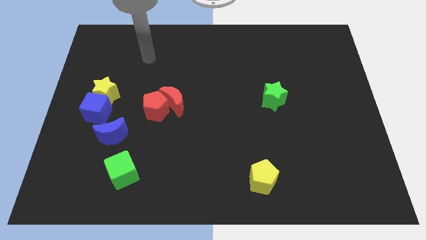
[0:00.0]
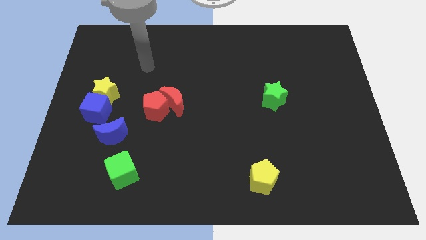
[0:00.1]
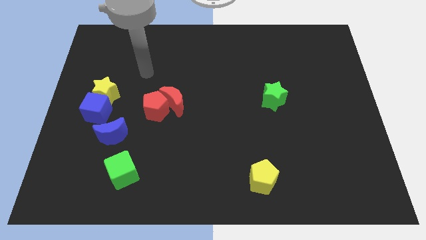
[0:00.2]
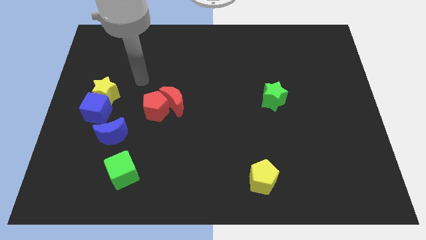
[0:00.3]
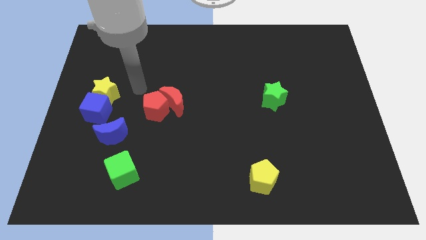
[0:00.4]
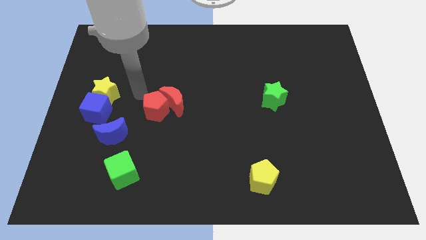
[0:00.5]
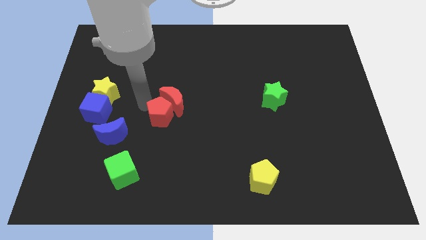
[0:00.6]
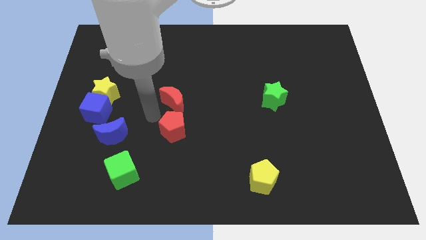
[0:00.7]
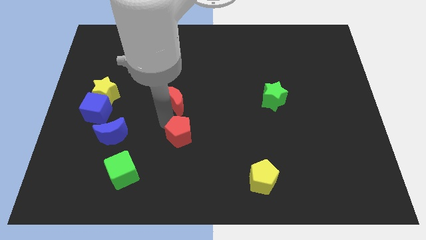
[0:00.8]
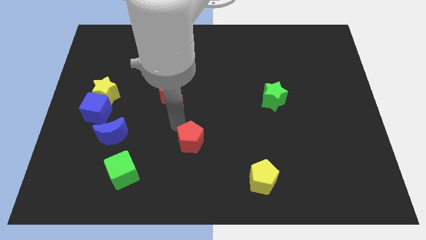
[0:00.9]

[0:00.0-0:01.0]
pull the red moon apart from the red pentagon

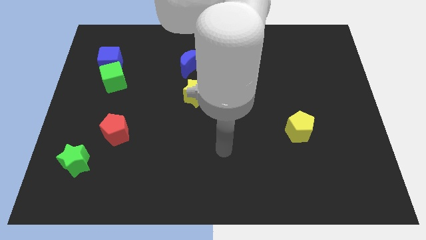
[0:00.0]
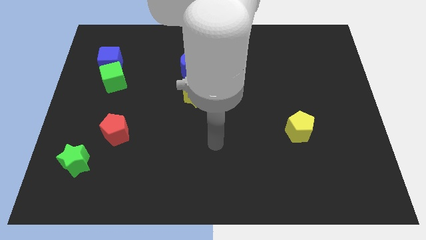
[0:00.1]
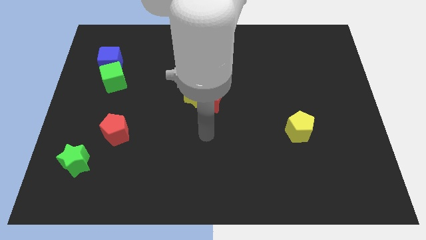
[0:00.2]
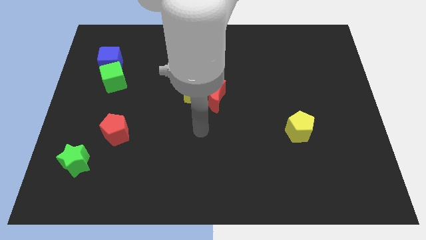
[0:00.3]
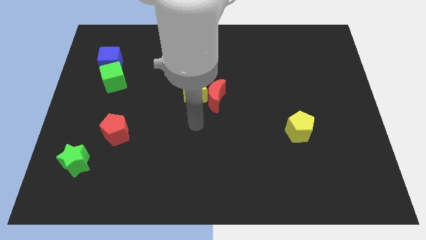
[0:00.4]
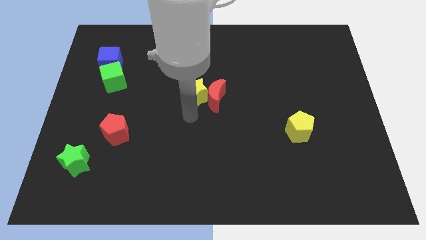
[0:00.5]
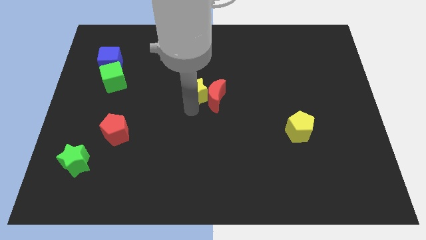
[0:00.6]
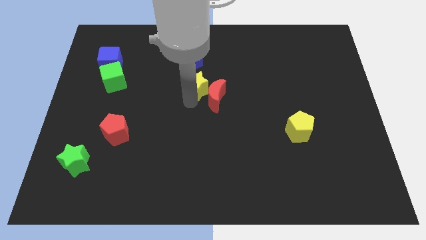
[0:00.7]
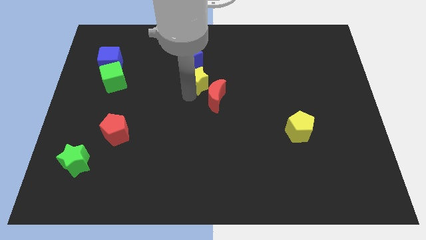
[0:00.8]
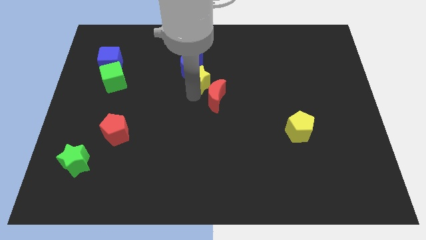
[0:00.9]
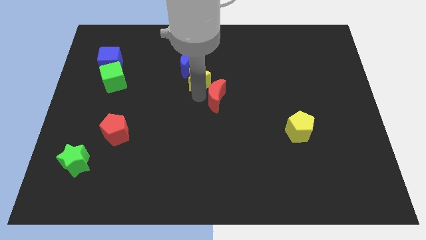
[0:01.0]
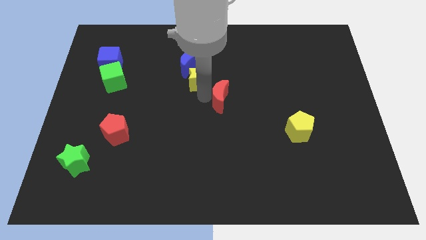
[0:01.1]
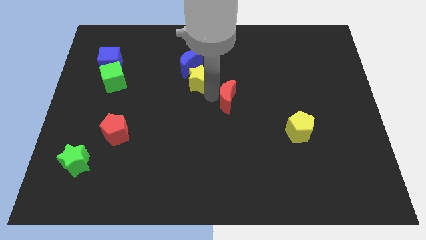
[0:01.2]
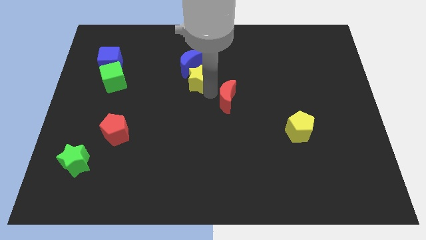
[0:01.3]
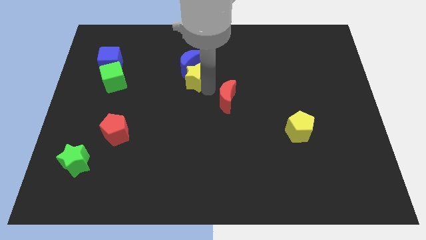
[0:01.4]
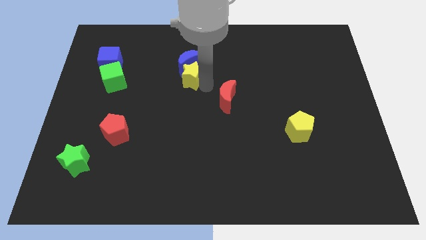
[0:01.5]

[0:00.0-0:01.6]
move the red moon away from the yellow star

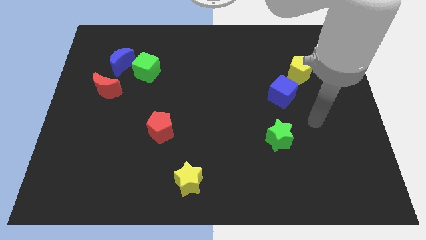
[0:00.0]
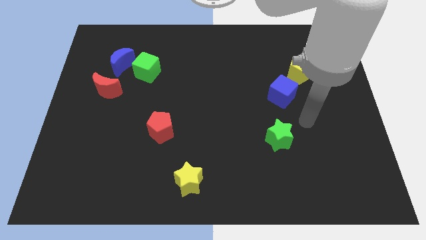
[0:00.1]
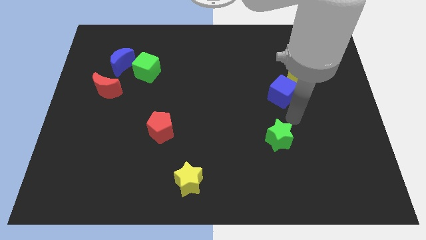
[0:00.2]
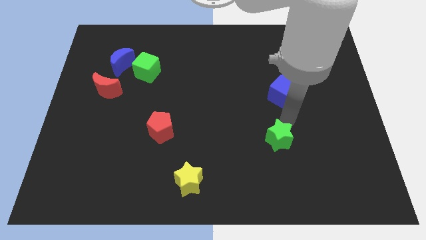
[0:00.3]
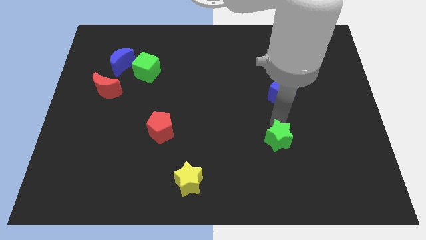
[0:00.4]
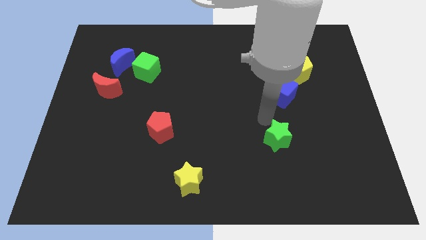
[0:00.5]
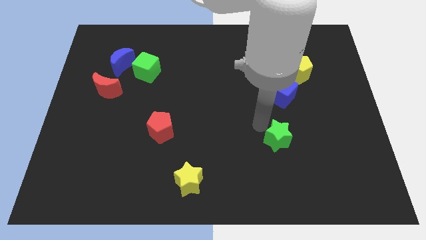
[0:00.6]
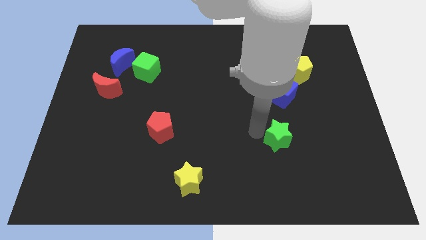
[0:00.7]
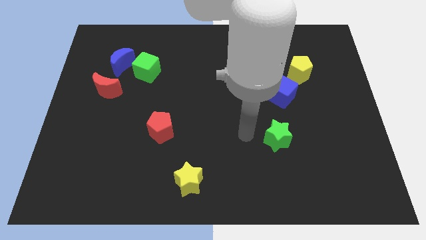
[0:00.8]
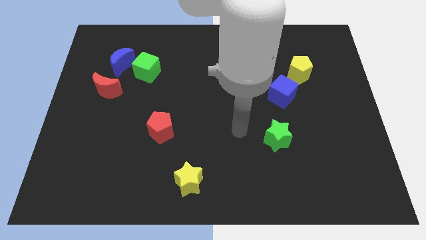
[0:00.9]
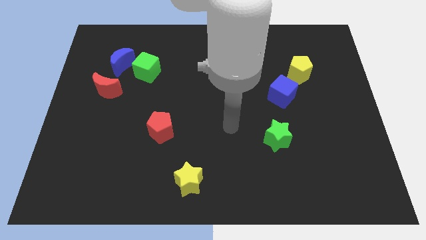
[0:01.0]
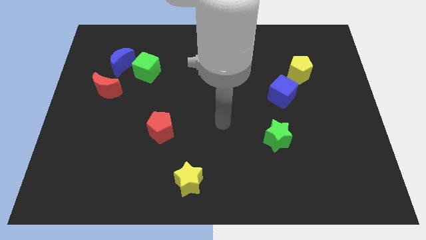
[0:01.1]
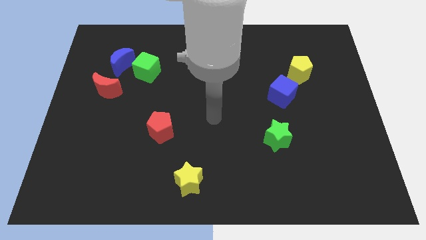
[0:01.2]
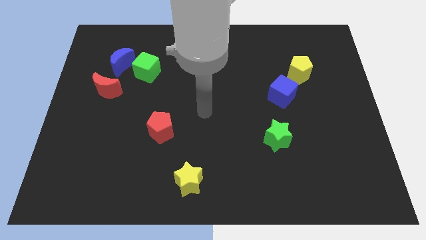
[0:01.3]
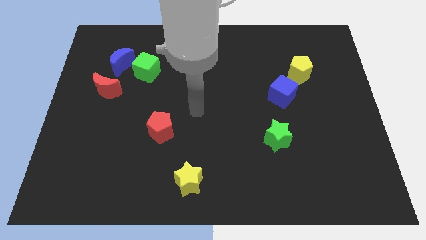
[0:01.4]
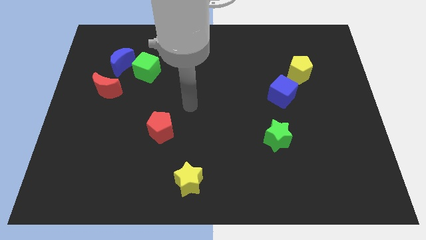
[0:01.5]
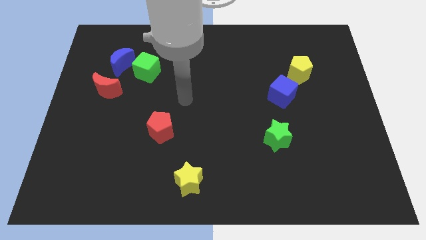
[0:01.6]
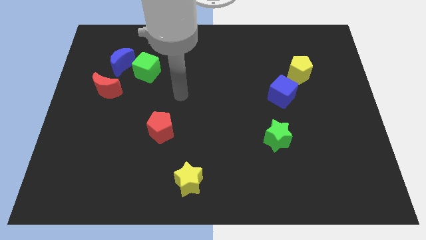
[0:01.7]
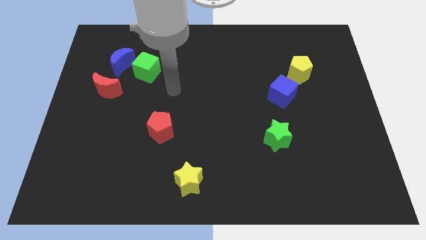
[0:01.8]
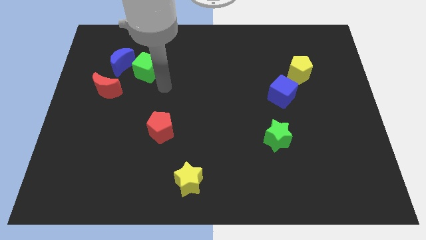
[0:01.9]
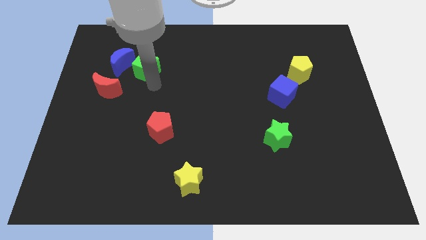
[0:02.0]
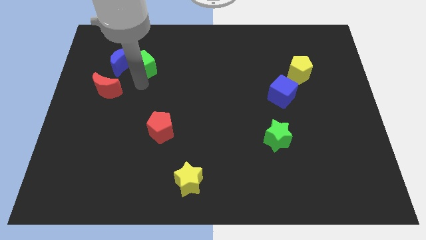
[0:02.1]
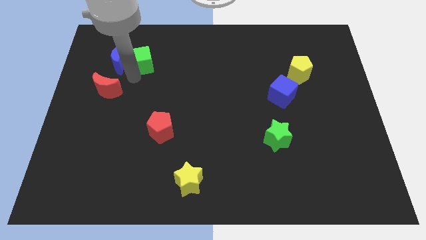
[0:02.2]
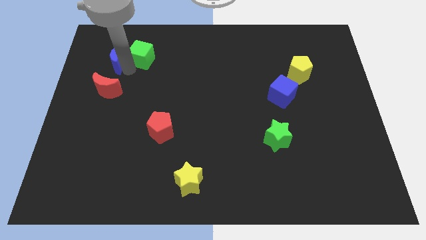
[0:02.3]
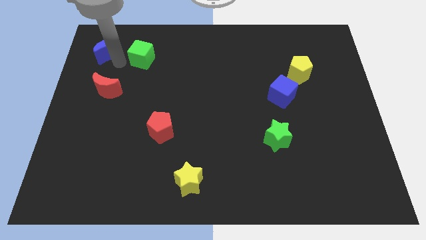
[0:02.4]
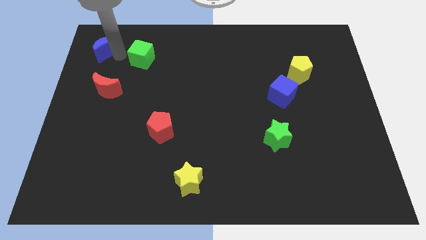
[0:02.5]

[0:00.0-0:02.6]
move the green cube away from the blue moon

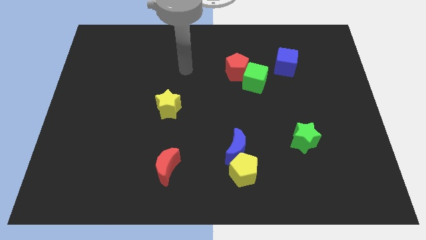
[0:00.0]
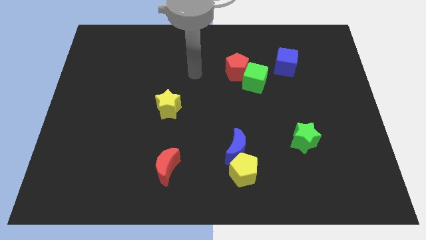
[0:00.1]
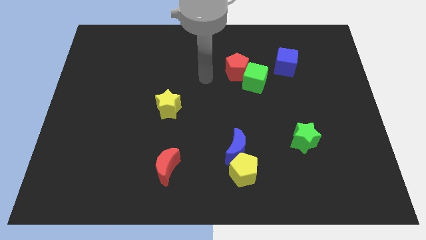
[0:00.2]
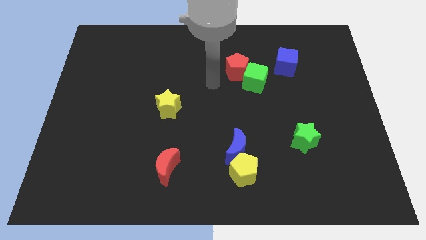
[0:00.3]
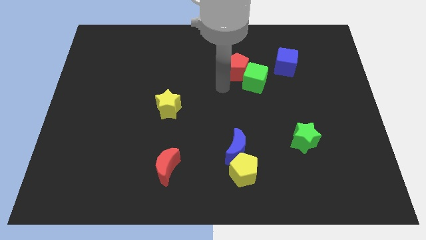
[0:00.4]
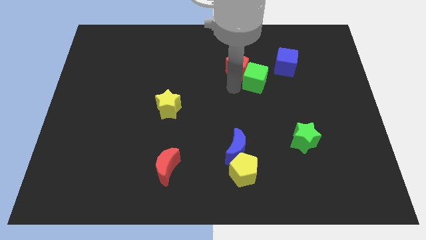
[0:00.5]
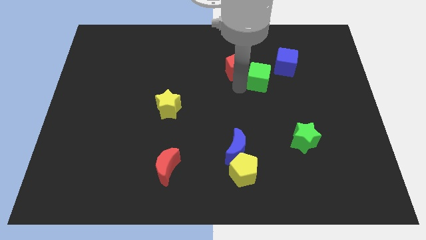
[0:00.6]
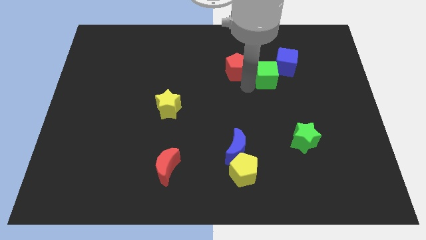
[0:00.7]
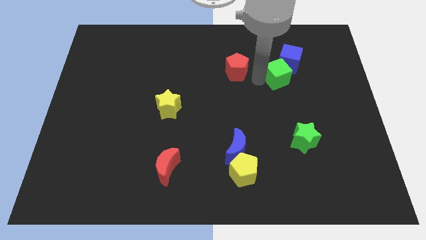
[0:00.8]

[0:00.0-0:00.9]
pull the red pentagon apart from the green cube

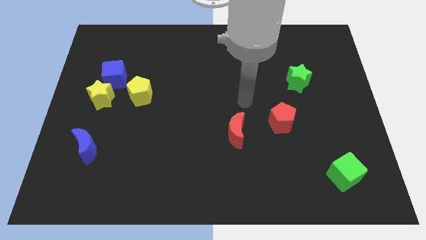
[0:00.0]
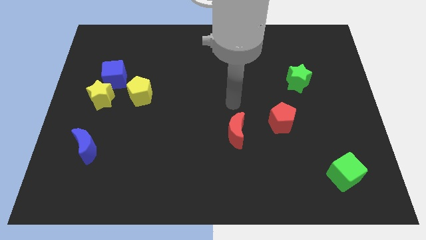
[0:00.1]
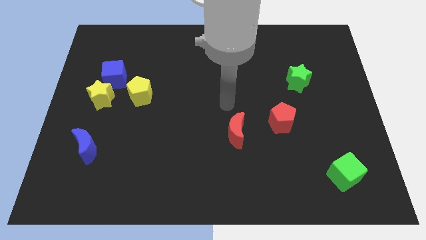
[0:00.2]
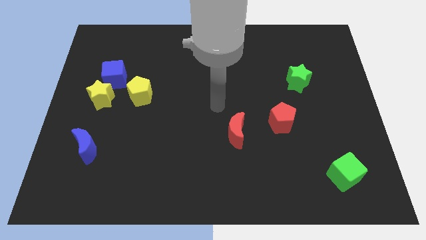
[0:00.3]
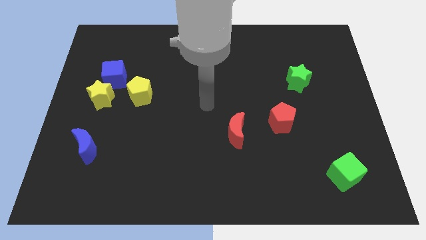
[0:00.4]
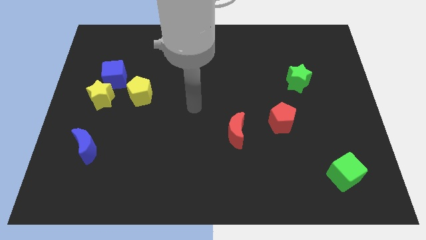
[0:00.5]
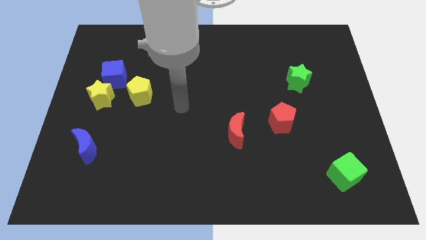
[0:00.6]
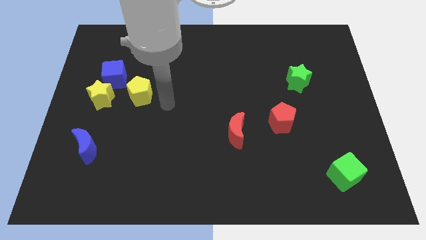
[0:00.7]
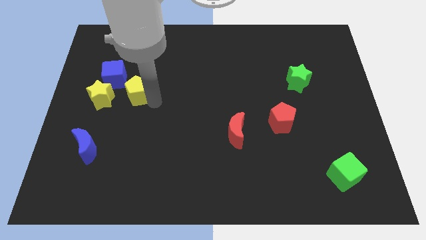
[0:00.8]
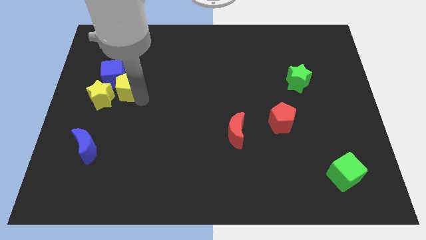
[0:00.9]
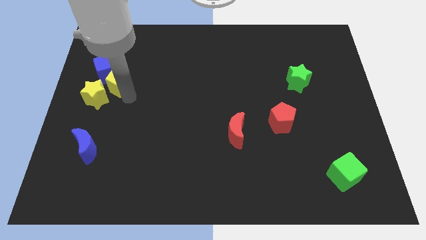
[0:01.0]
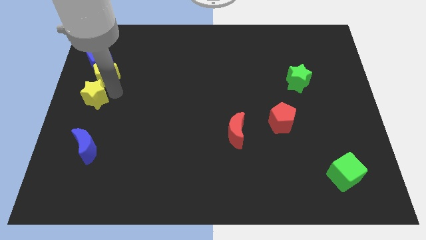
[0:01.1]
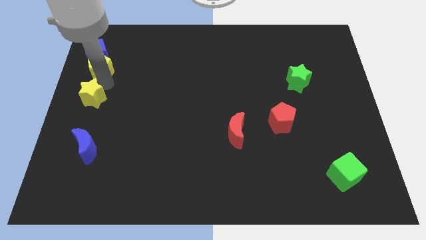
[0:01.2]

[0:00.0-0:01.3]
pull the blue cube apart from the yellow star and yellow pentagon

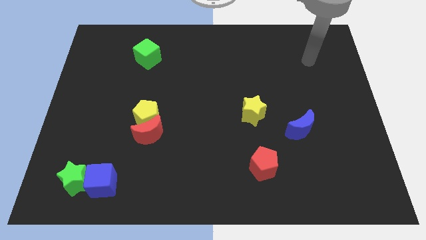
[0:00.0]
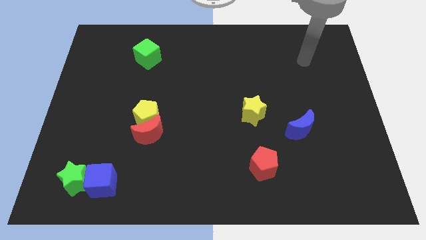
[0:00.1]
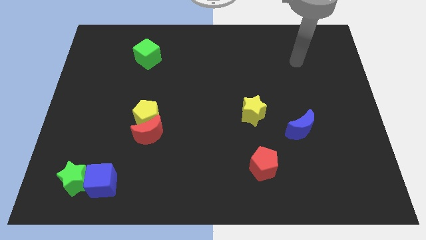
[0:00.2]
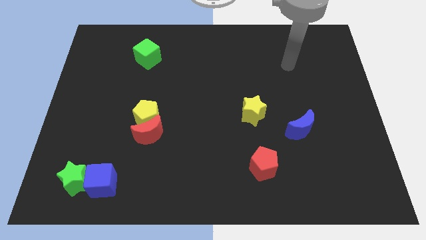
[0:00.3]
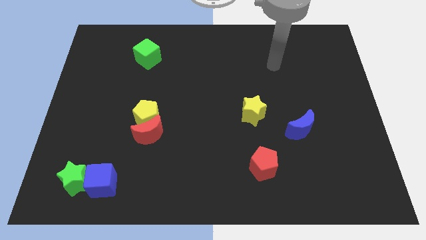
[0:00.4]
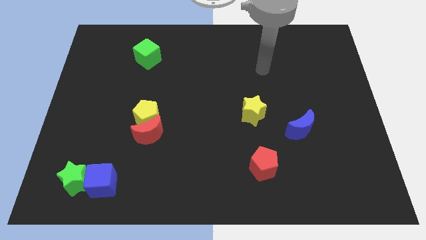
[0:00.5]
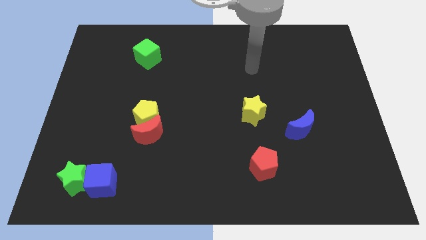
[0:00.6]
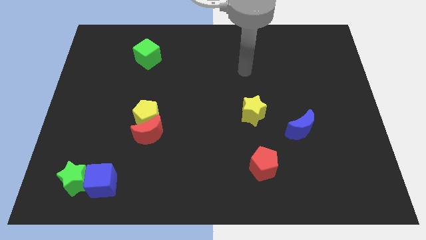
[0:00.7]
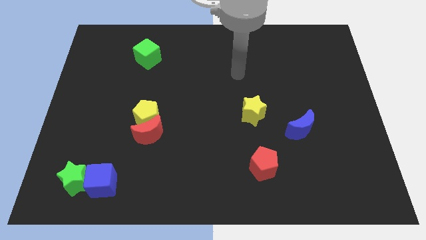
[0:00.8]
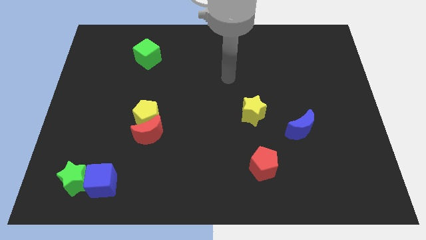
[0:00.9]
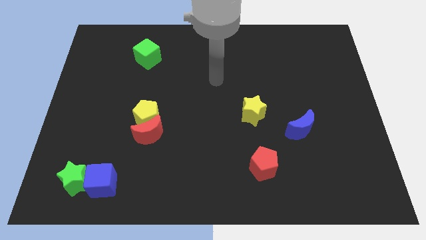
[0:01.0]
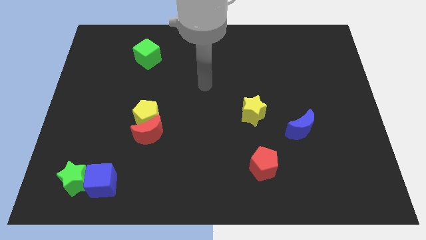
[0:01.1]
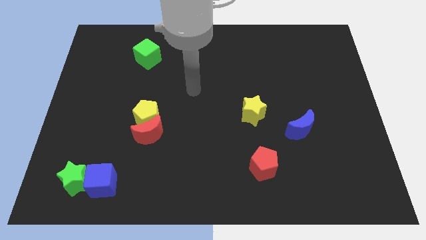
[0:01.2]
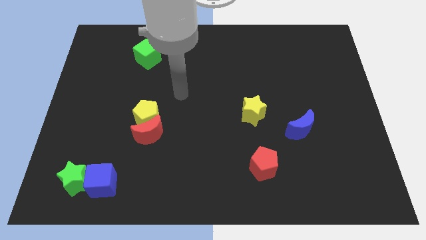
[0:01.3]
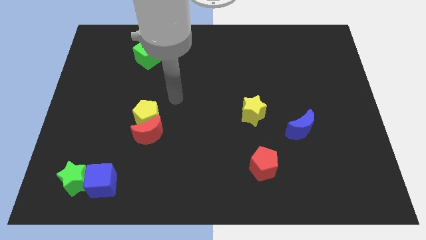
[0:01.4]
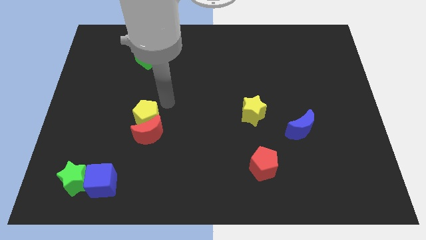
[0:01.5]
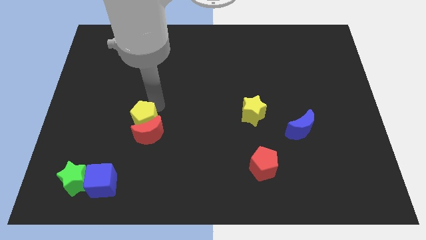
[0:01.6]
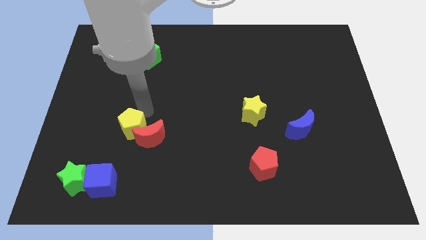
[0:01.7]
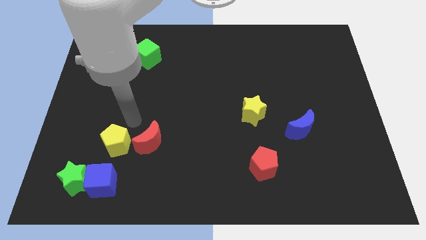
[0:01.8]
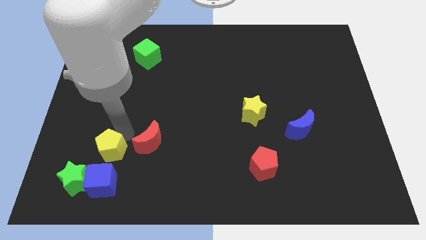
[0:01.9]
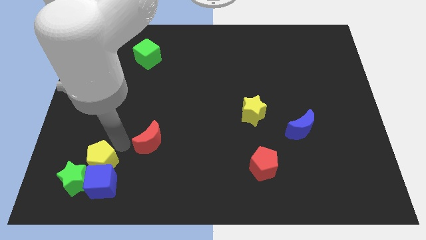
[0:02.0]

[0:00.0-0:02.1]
pull the red moon apart from the yellow pentagon

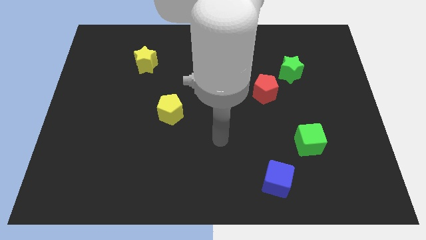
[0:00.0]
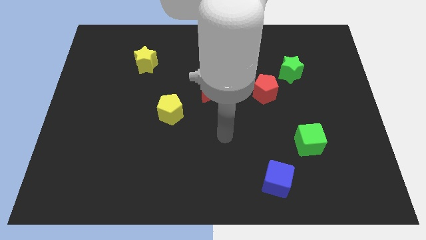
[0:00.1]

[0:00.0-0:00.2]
separate the red pentagon from the green star
